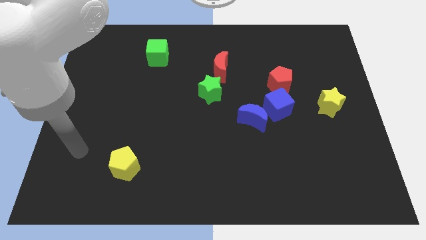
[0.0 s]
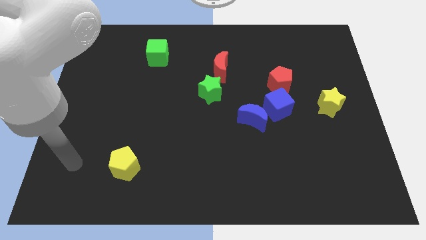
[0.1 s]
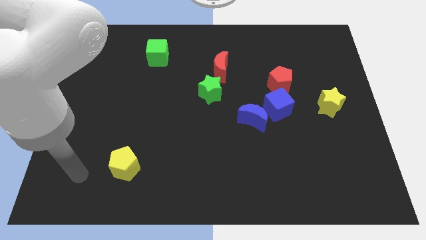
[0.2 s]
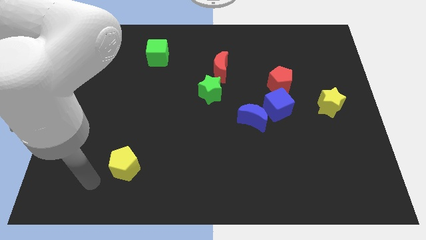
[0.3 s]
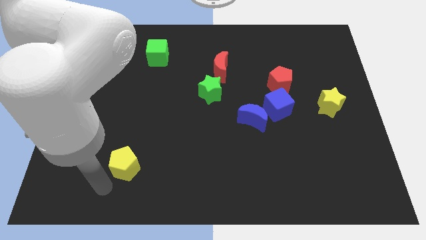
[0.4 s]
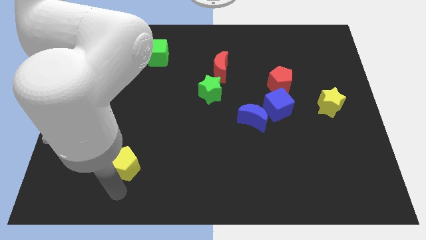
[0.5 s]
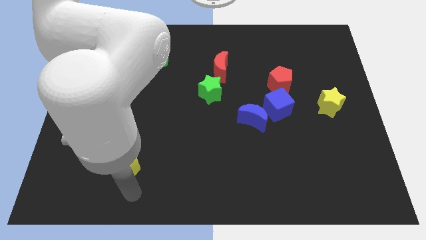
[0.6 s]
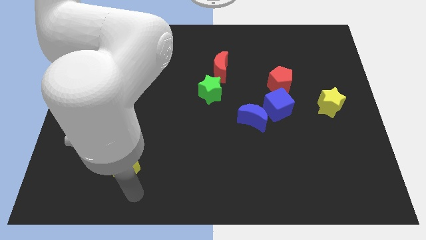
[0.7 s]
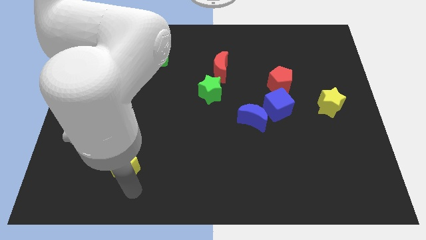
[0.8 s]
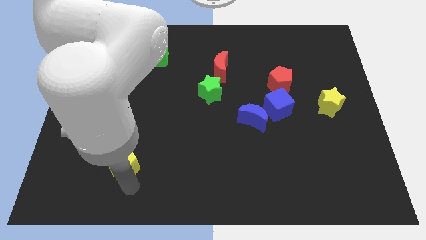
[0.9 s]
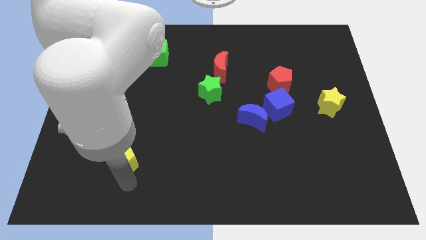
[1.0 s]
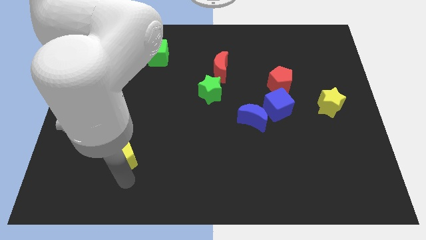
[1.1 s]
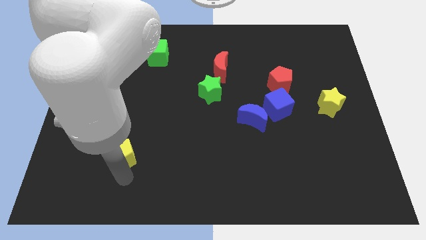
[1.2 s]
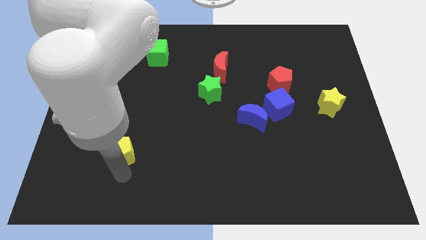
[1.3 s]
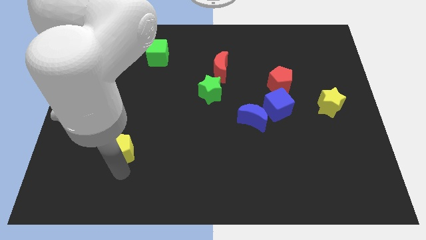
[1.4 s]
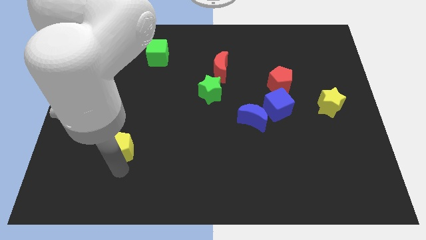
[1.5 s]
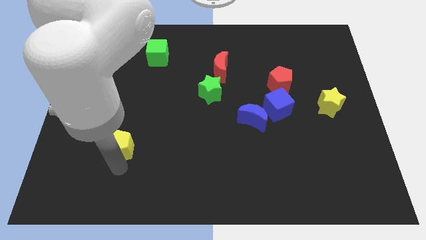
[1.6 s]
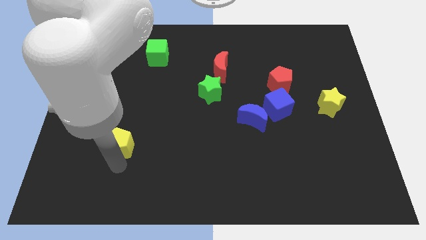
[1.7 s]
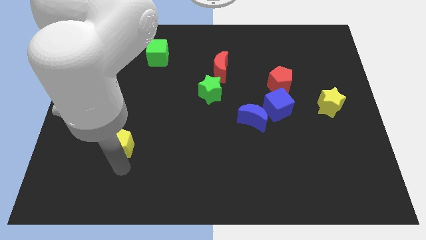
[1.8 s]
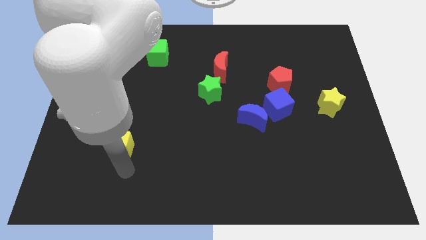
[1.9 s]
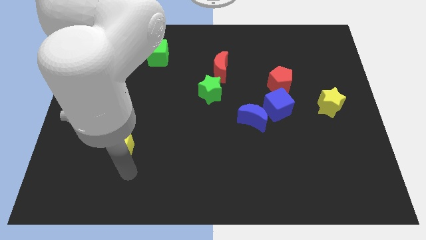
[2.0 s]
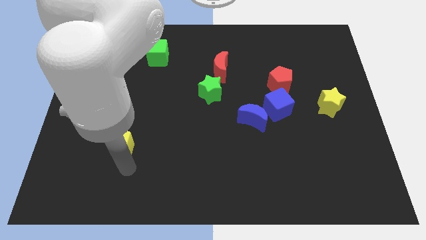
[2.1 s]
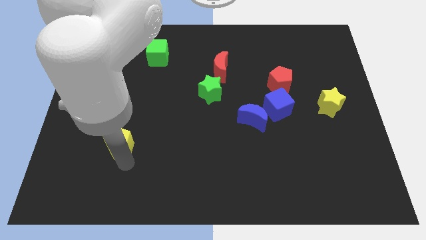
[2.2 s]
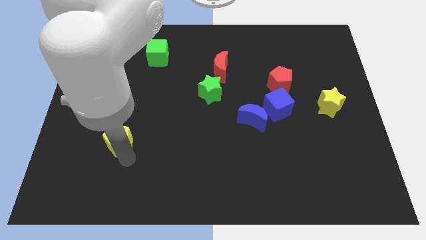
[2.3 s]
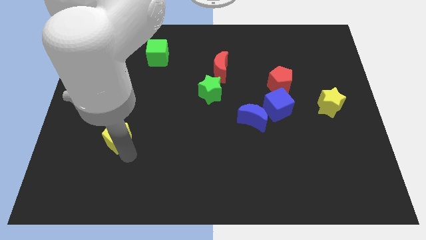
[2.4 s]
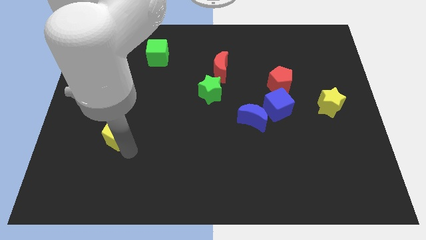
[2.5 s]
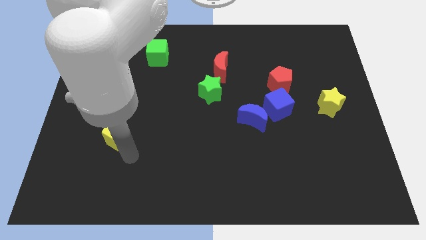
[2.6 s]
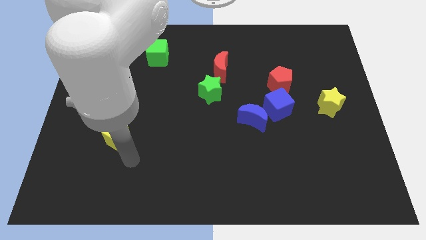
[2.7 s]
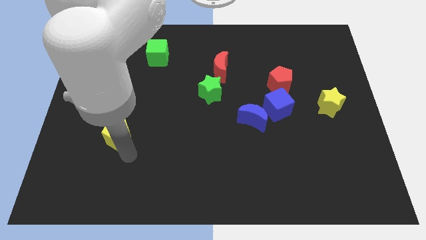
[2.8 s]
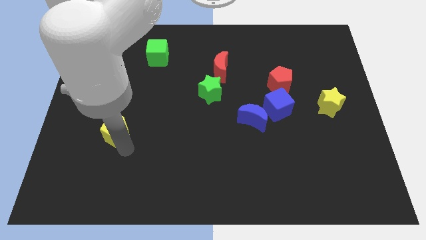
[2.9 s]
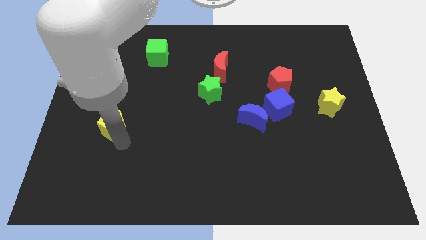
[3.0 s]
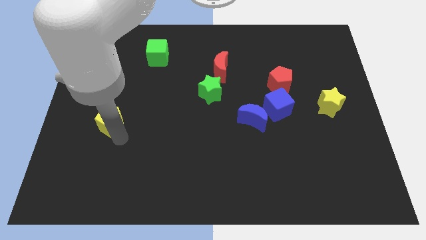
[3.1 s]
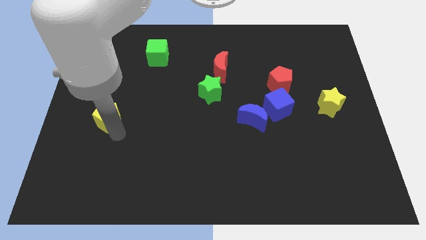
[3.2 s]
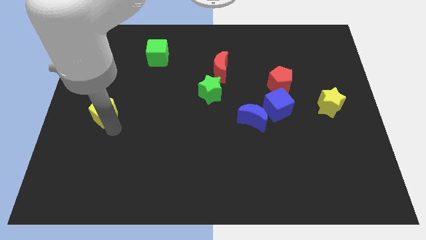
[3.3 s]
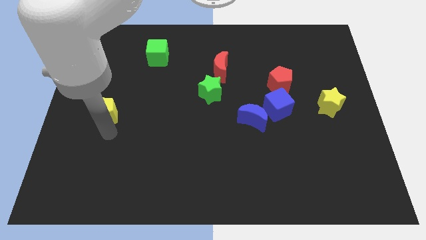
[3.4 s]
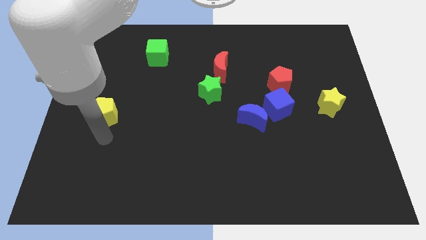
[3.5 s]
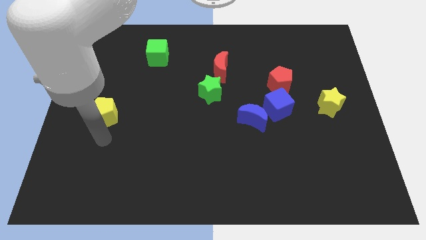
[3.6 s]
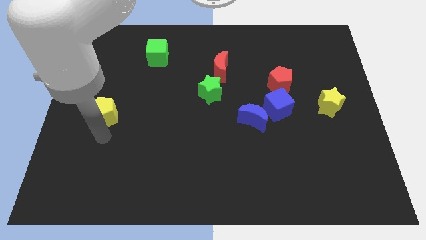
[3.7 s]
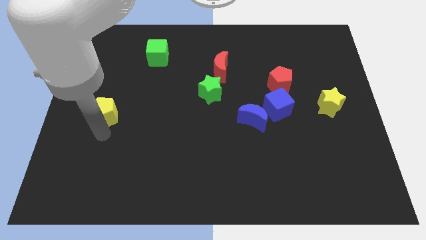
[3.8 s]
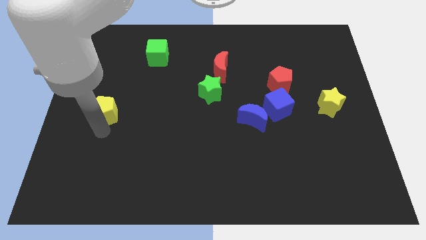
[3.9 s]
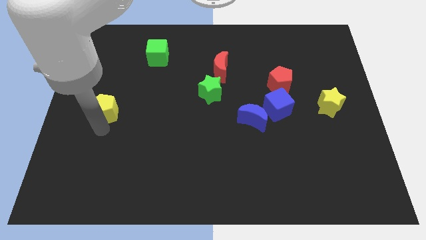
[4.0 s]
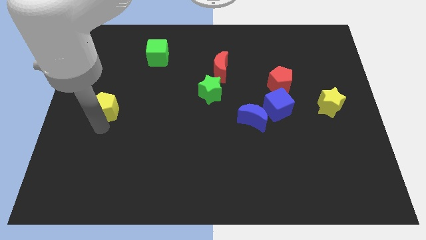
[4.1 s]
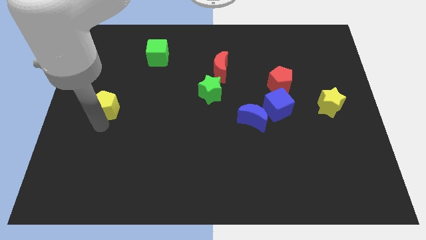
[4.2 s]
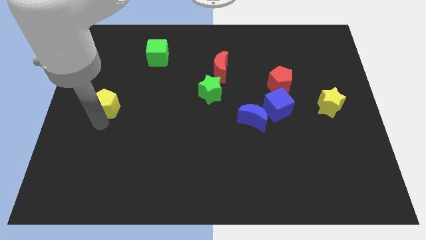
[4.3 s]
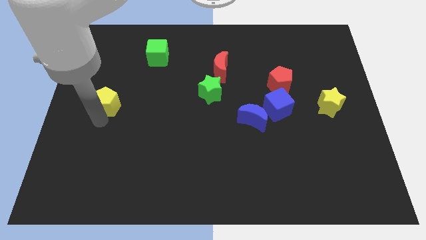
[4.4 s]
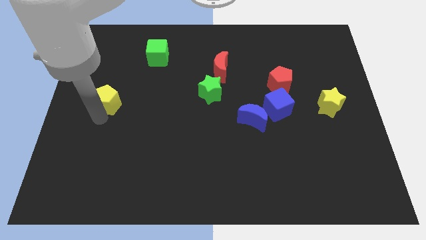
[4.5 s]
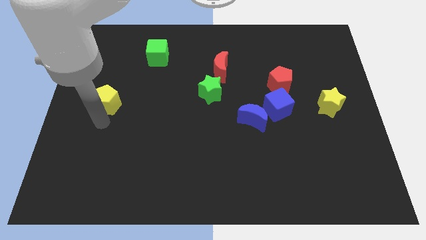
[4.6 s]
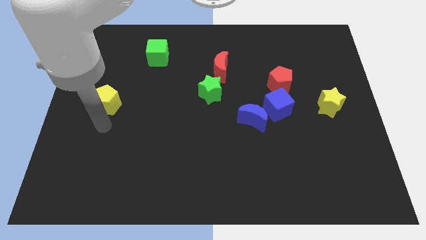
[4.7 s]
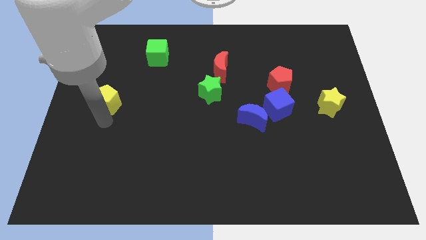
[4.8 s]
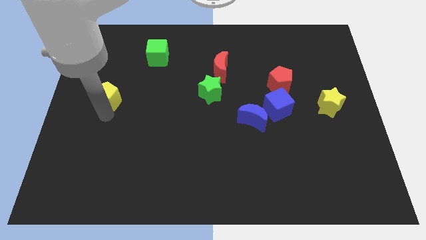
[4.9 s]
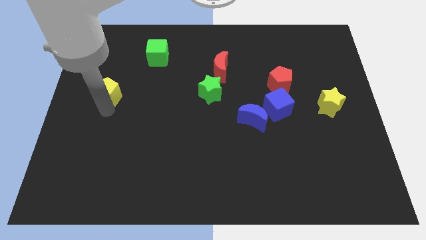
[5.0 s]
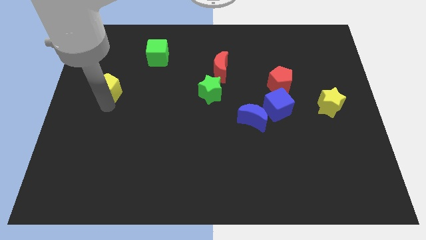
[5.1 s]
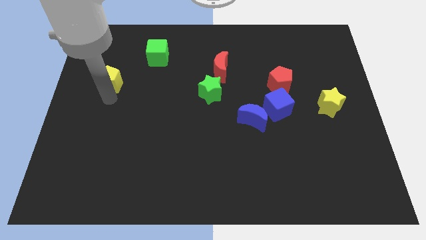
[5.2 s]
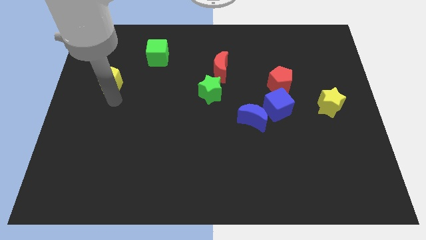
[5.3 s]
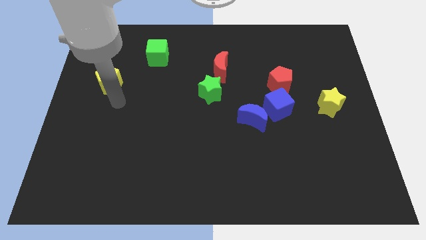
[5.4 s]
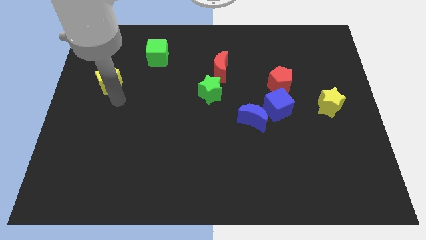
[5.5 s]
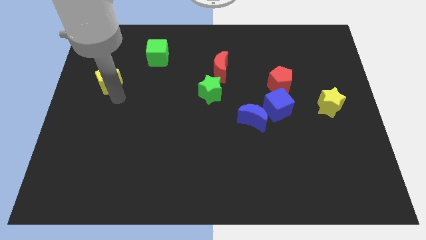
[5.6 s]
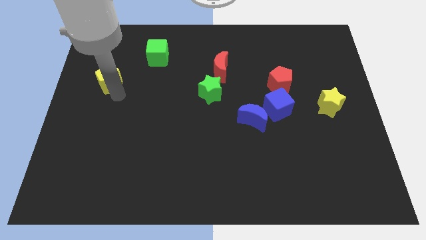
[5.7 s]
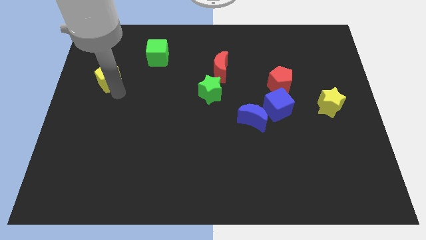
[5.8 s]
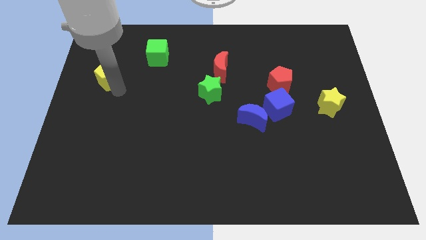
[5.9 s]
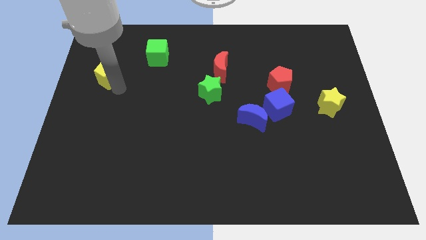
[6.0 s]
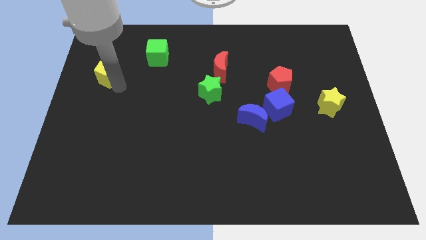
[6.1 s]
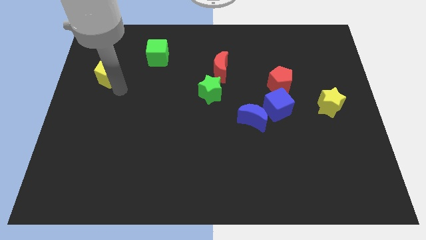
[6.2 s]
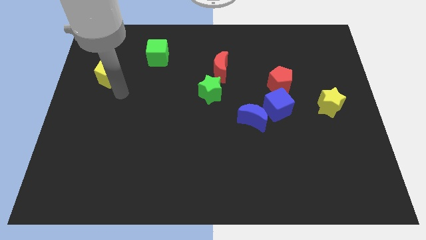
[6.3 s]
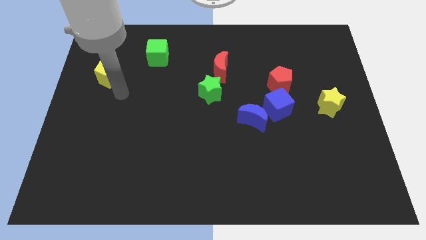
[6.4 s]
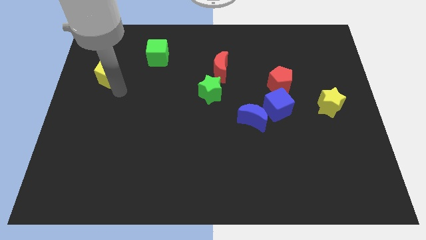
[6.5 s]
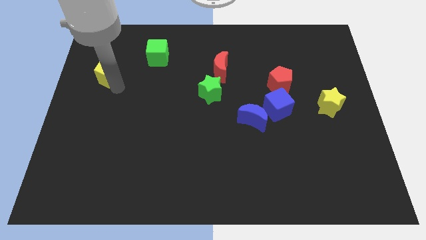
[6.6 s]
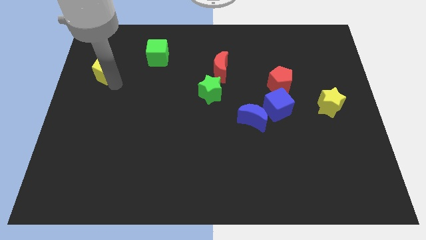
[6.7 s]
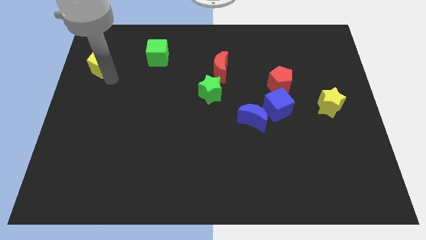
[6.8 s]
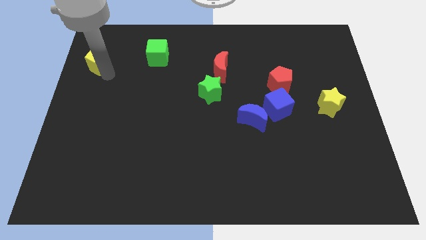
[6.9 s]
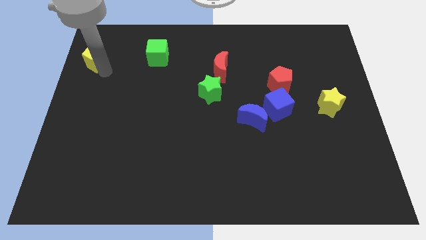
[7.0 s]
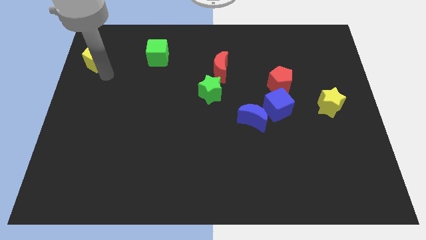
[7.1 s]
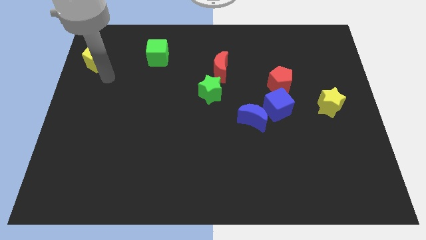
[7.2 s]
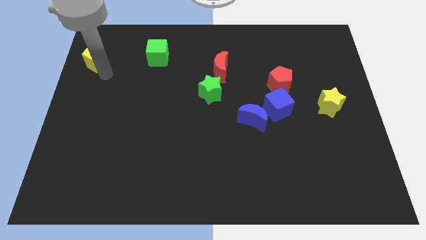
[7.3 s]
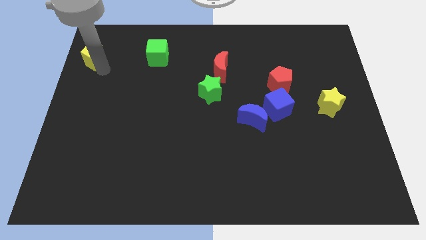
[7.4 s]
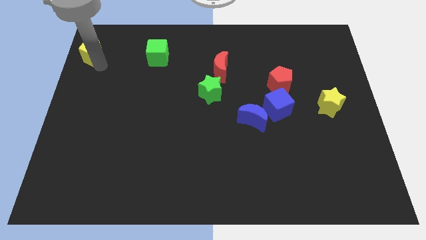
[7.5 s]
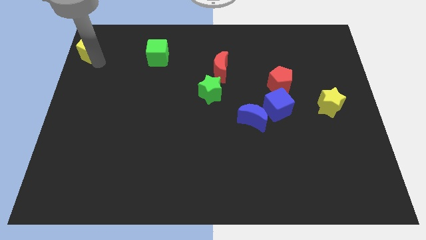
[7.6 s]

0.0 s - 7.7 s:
push the yellow pentagon to the upper left corner
